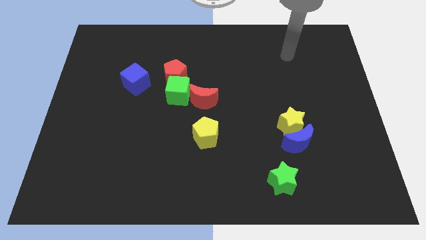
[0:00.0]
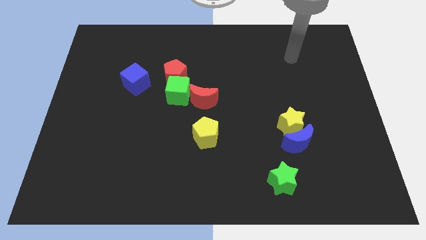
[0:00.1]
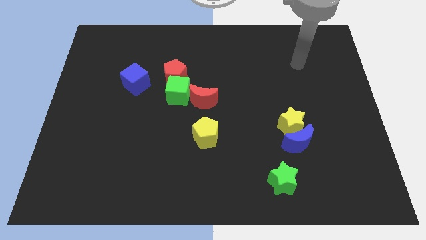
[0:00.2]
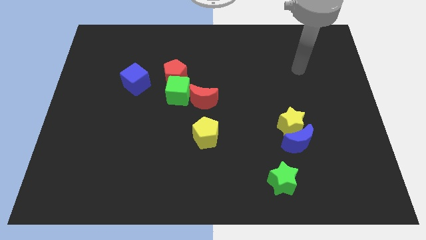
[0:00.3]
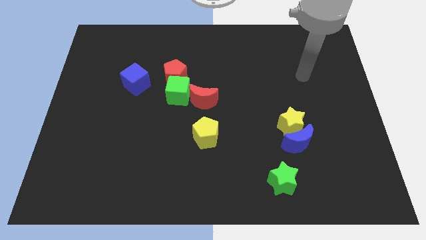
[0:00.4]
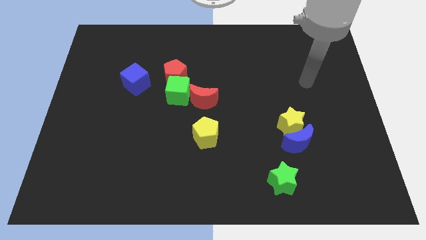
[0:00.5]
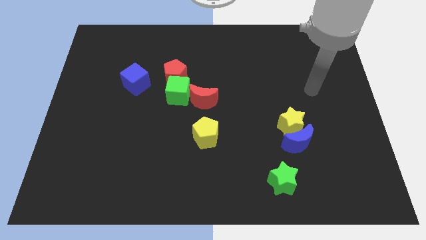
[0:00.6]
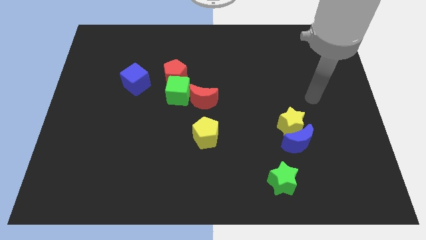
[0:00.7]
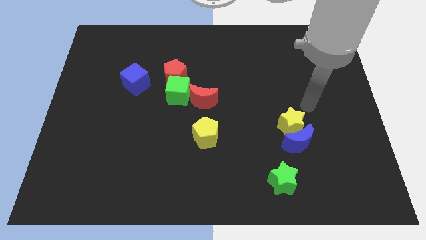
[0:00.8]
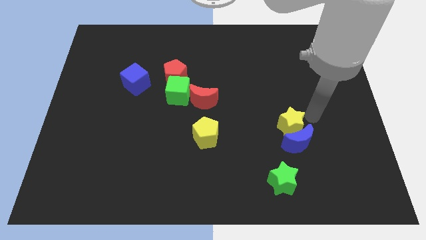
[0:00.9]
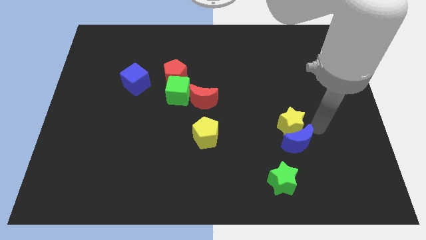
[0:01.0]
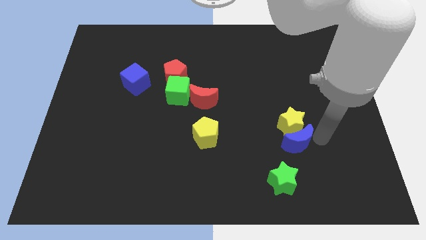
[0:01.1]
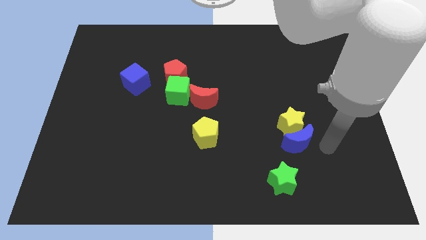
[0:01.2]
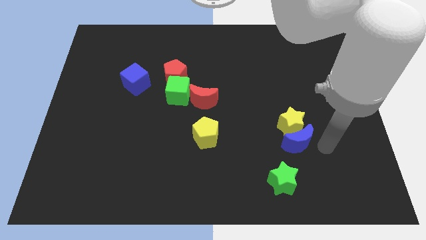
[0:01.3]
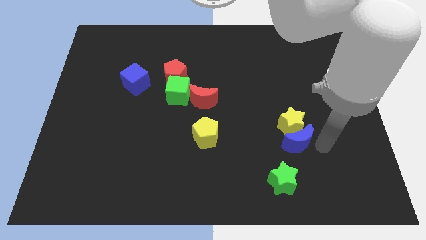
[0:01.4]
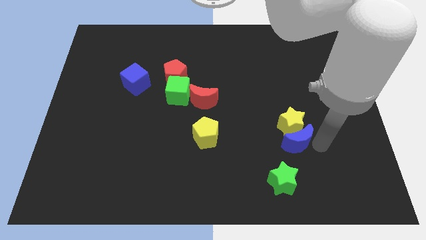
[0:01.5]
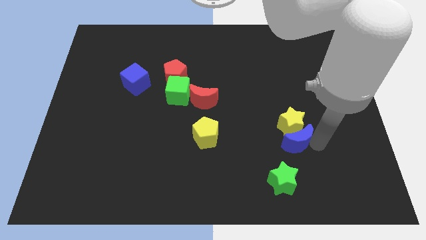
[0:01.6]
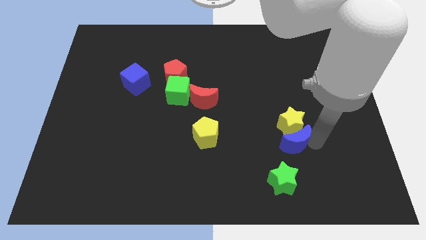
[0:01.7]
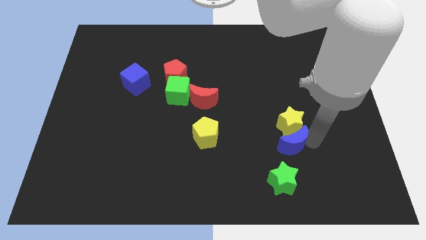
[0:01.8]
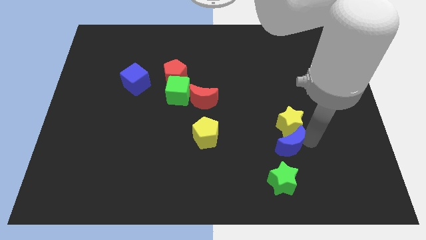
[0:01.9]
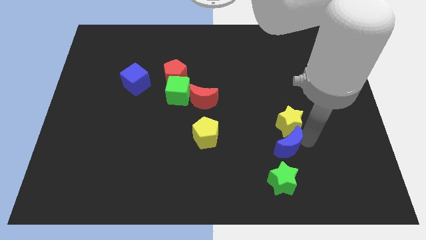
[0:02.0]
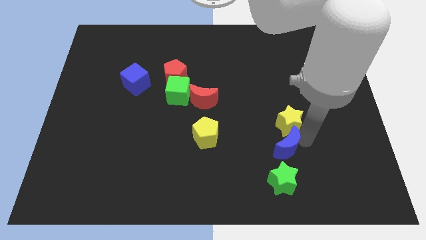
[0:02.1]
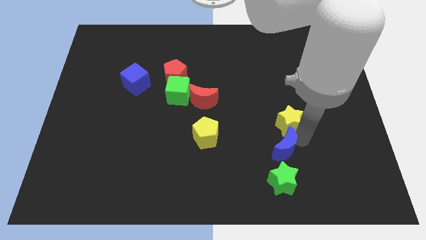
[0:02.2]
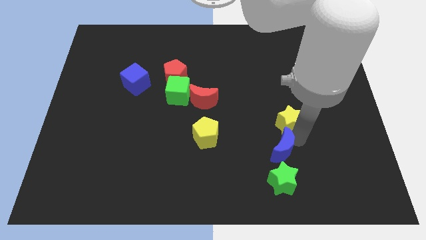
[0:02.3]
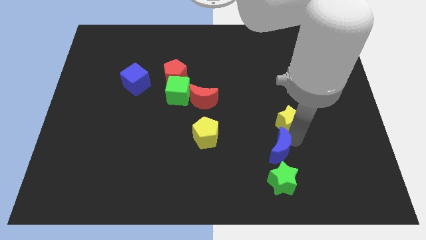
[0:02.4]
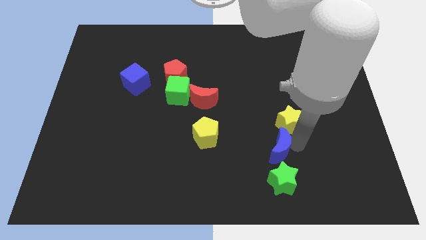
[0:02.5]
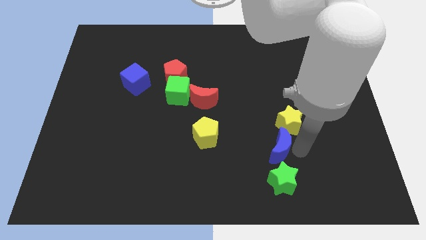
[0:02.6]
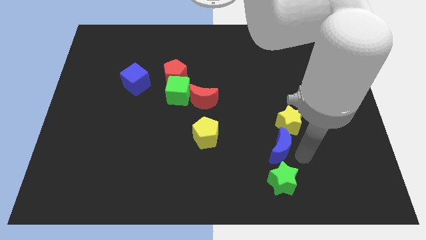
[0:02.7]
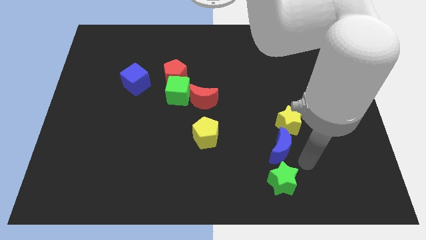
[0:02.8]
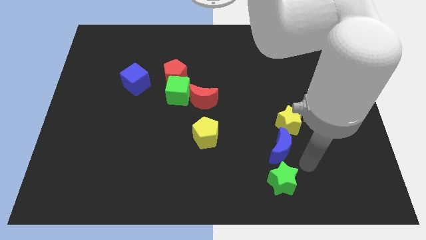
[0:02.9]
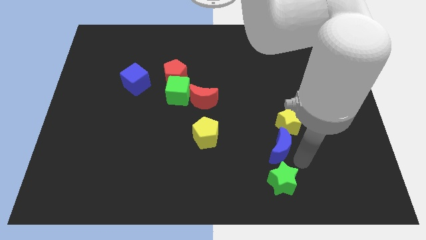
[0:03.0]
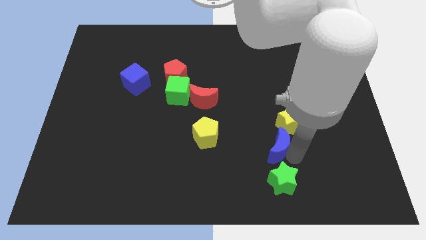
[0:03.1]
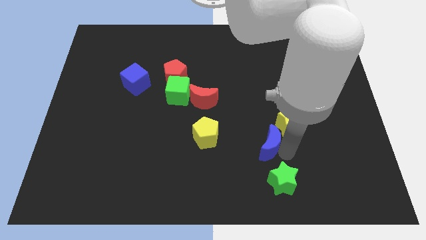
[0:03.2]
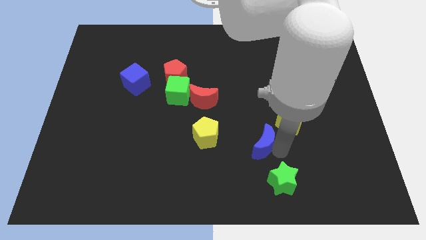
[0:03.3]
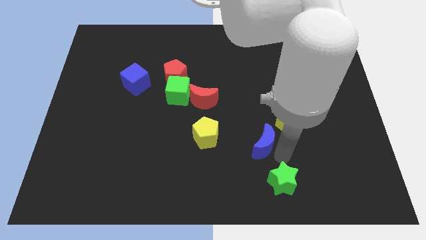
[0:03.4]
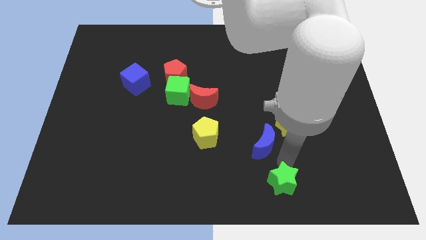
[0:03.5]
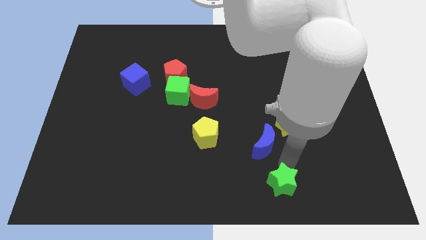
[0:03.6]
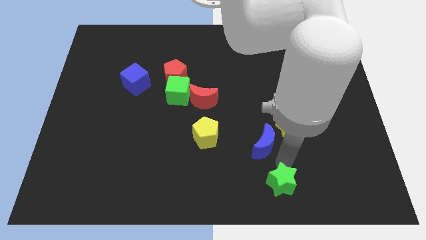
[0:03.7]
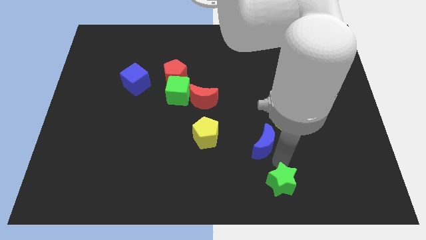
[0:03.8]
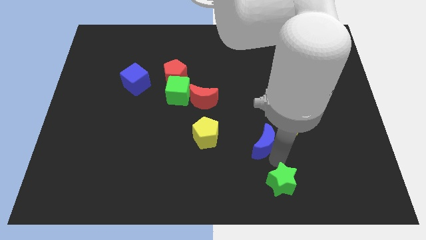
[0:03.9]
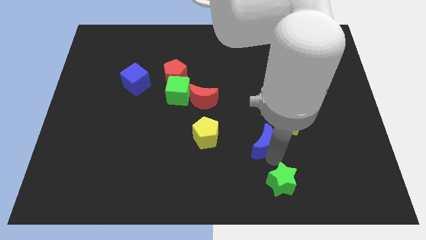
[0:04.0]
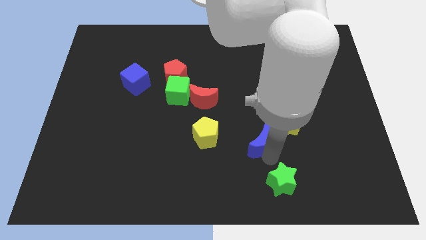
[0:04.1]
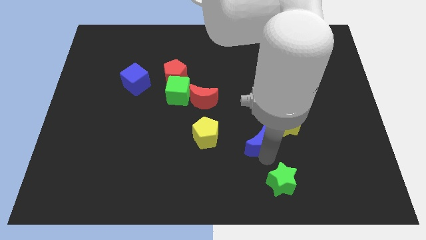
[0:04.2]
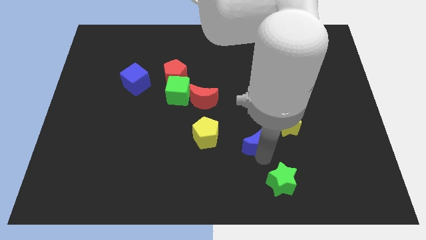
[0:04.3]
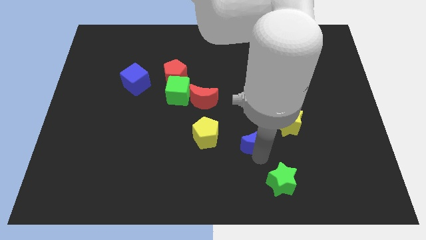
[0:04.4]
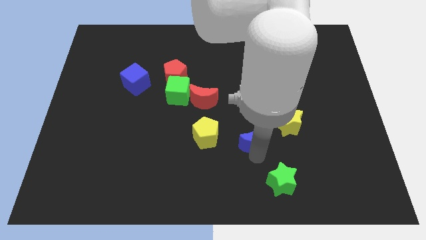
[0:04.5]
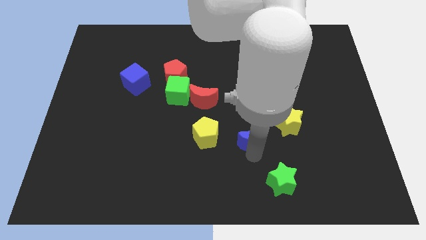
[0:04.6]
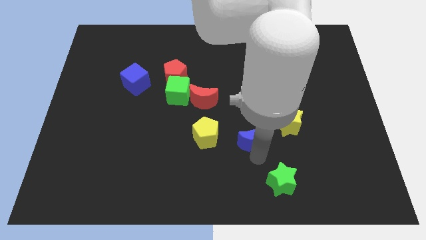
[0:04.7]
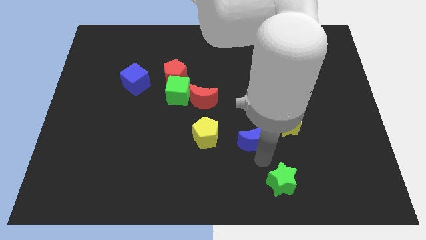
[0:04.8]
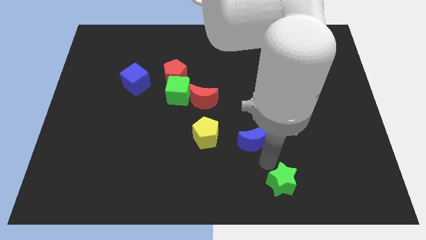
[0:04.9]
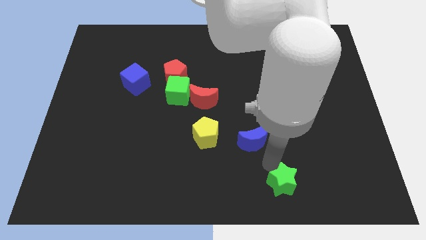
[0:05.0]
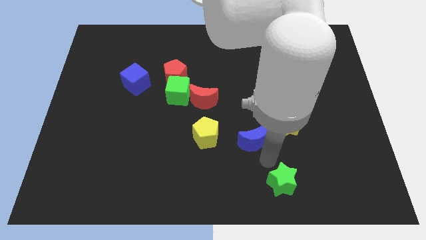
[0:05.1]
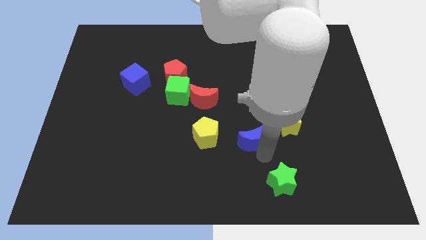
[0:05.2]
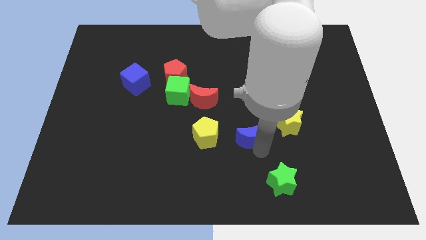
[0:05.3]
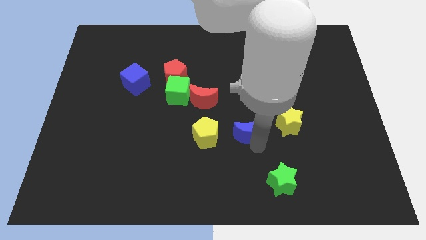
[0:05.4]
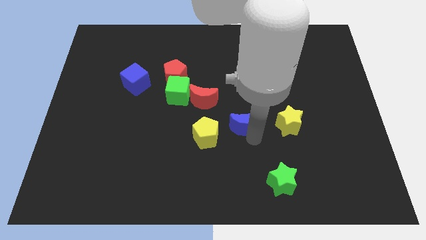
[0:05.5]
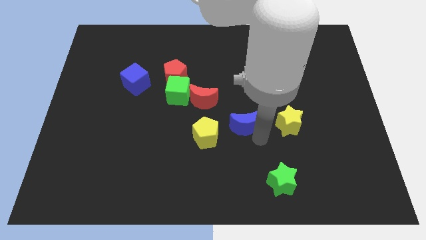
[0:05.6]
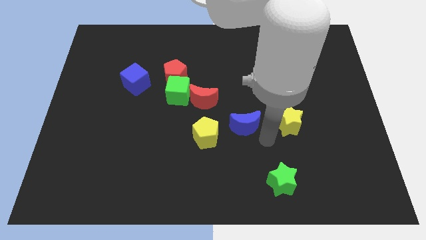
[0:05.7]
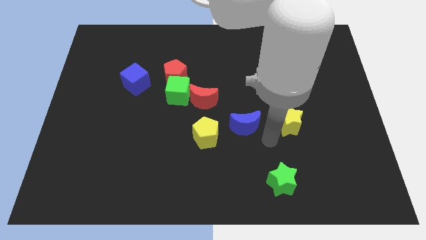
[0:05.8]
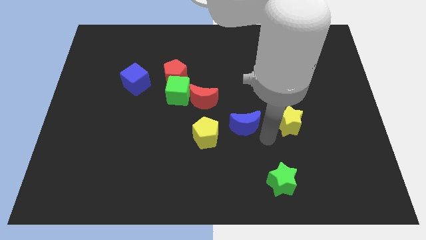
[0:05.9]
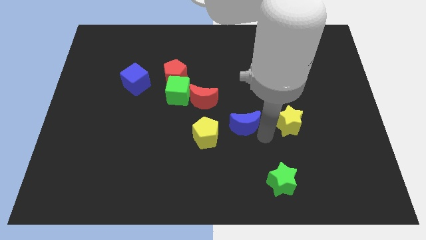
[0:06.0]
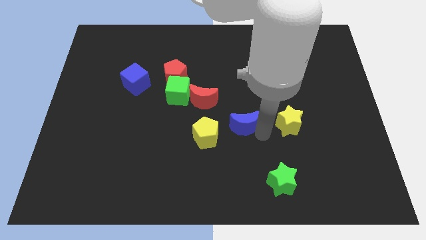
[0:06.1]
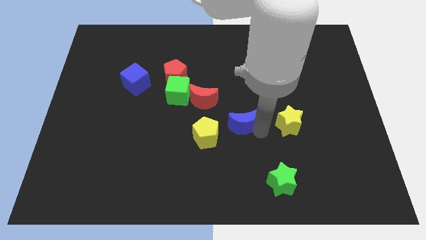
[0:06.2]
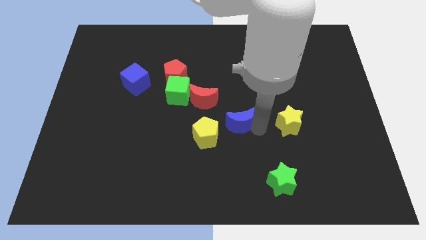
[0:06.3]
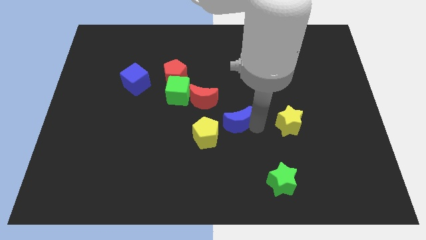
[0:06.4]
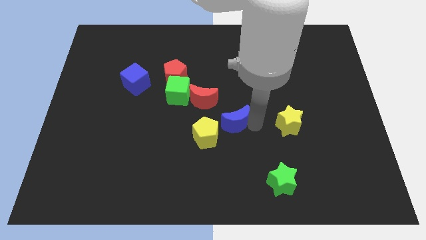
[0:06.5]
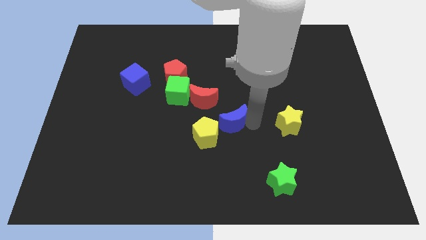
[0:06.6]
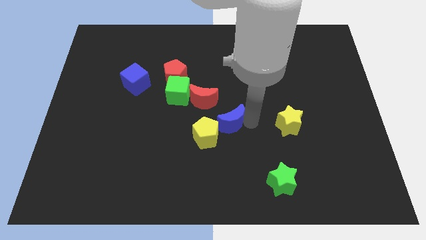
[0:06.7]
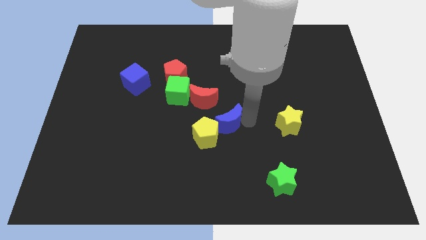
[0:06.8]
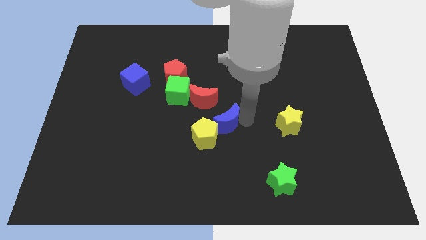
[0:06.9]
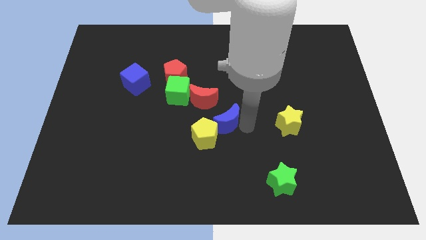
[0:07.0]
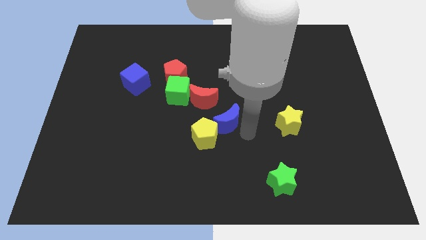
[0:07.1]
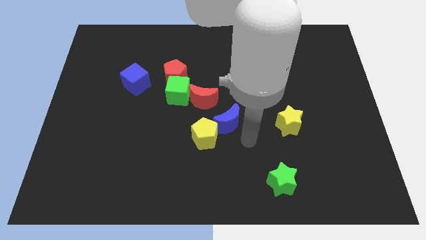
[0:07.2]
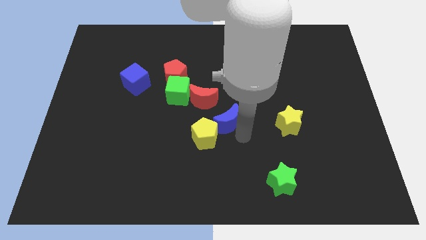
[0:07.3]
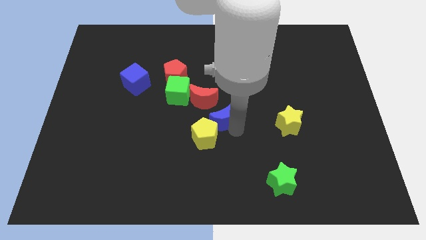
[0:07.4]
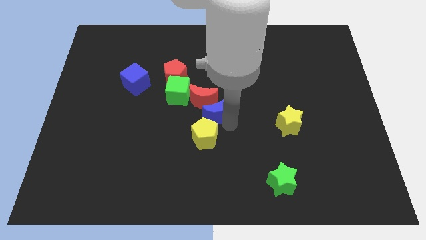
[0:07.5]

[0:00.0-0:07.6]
slide the blue moon next to the red moon

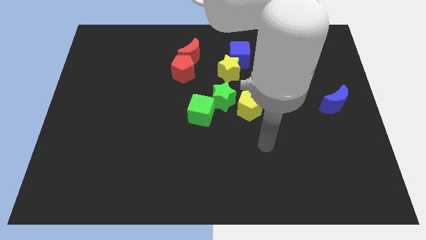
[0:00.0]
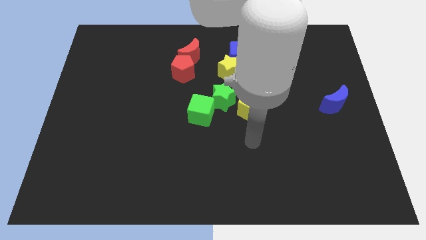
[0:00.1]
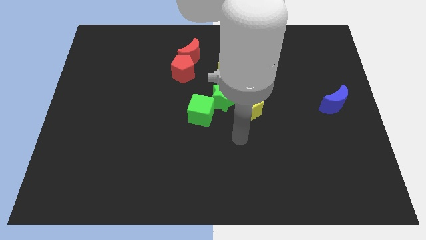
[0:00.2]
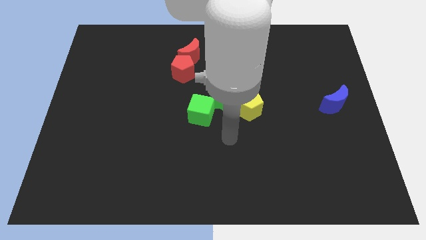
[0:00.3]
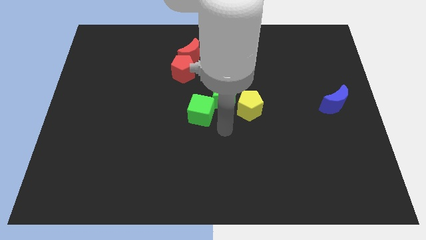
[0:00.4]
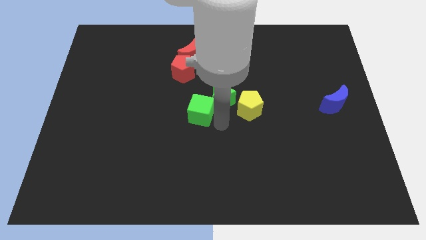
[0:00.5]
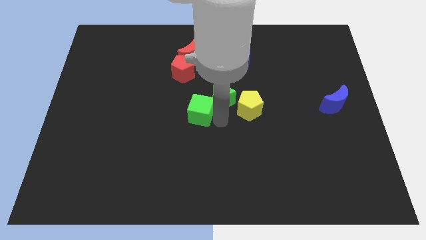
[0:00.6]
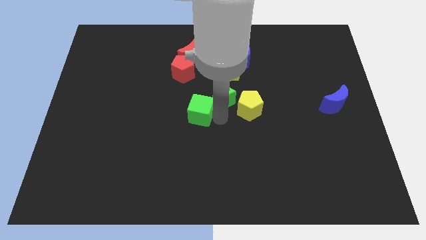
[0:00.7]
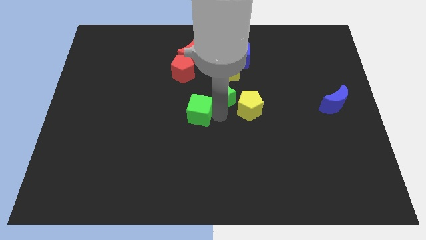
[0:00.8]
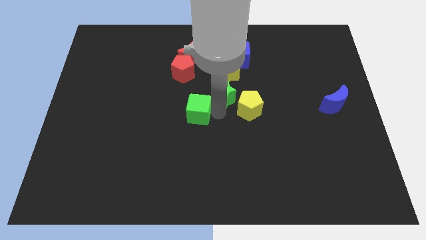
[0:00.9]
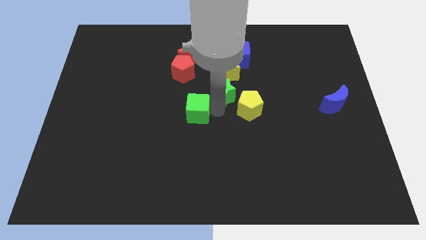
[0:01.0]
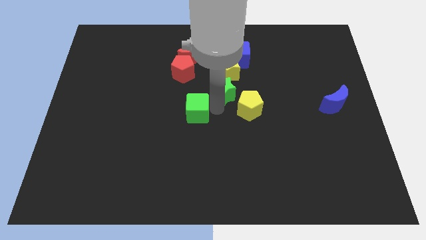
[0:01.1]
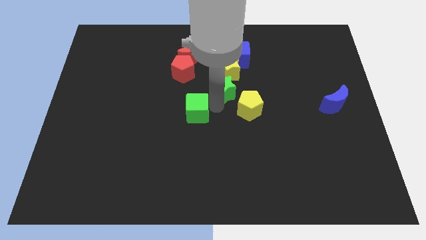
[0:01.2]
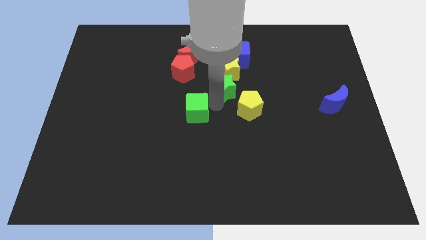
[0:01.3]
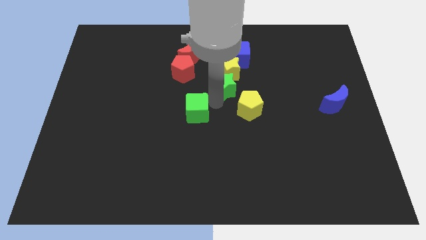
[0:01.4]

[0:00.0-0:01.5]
slide the green star to the yellow star
